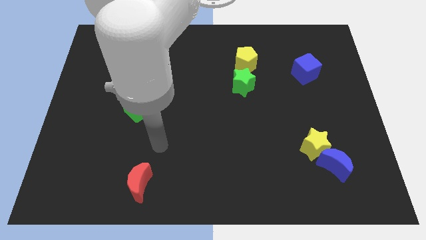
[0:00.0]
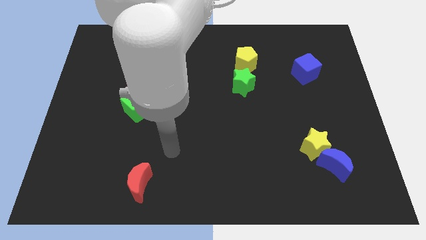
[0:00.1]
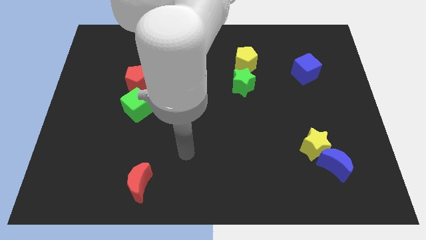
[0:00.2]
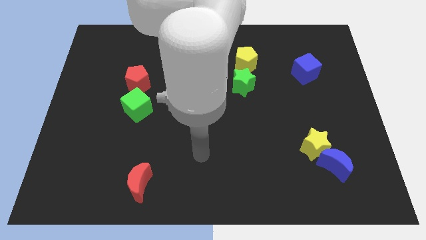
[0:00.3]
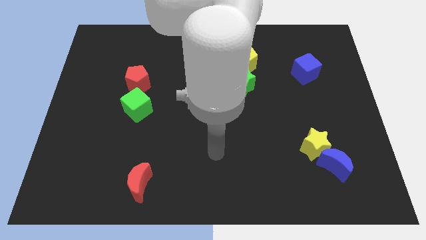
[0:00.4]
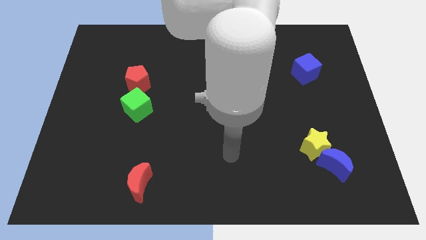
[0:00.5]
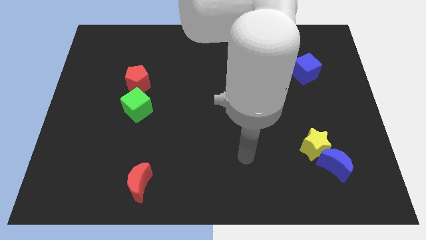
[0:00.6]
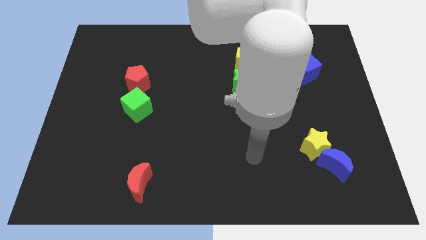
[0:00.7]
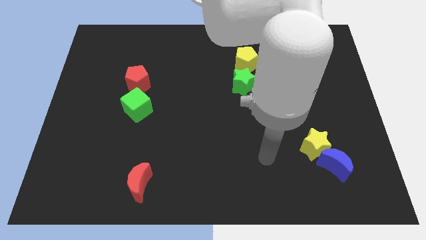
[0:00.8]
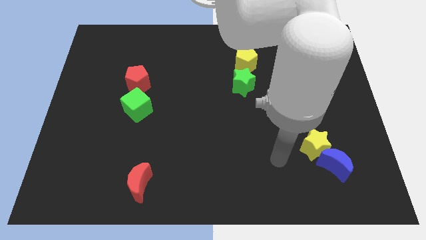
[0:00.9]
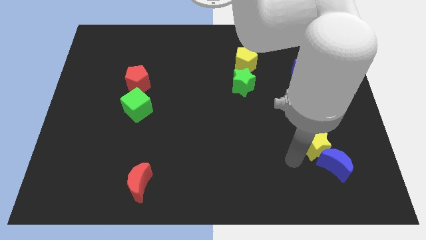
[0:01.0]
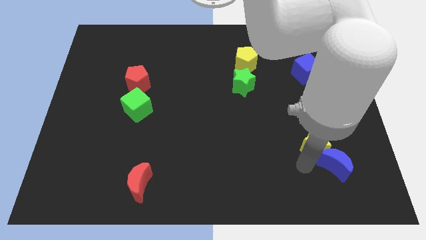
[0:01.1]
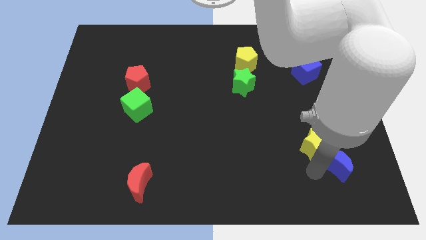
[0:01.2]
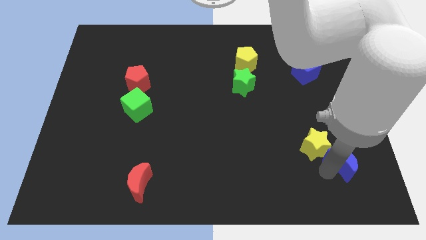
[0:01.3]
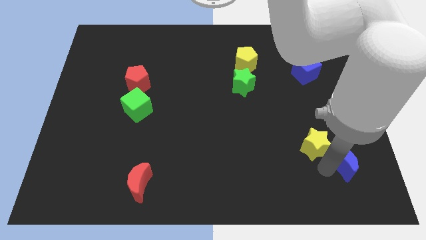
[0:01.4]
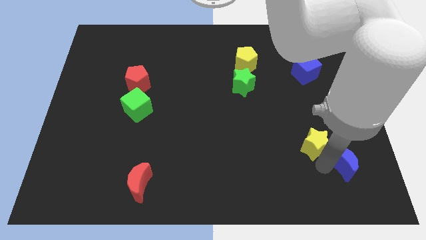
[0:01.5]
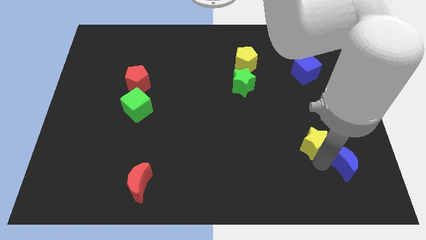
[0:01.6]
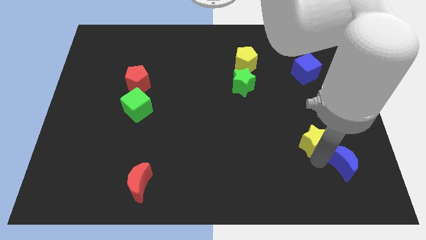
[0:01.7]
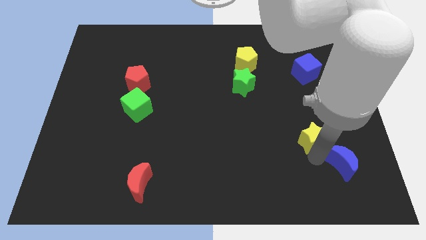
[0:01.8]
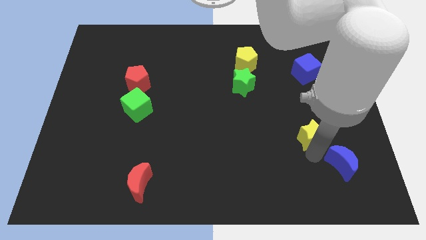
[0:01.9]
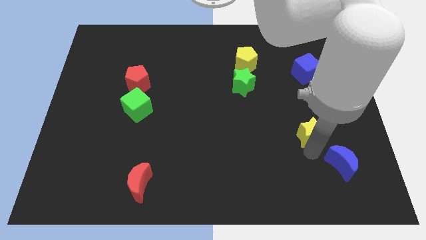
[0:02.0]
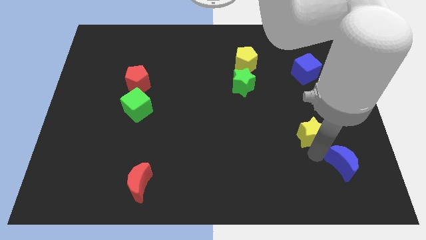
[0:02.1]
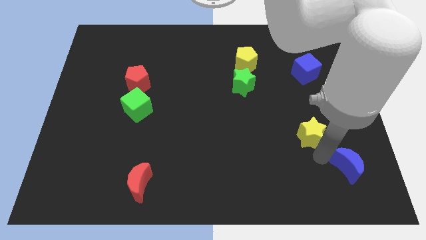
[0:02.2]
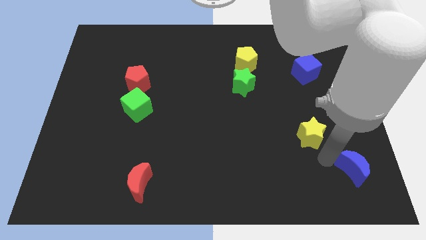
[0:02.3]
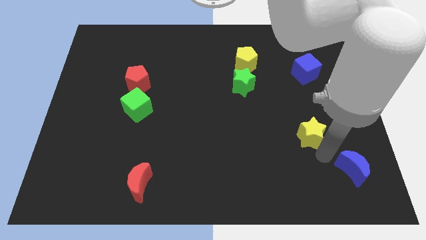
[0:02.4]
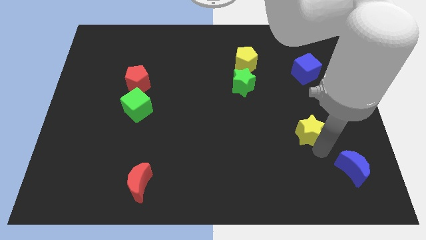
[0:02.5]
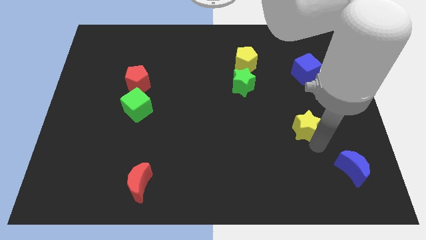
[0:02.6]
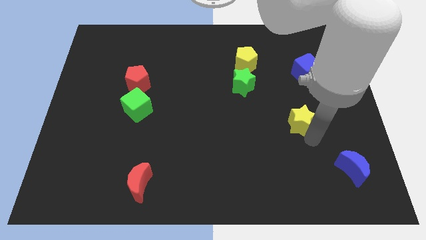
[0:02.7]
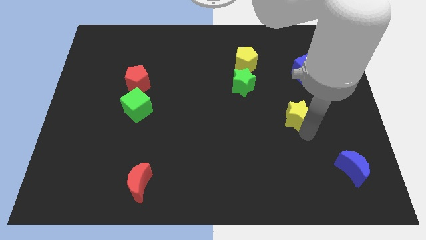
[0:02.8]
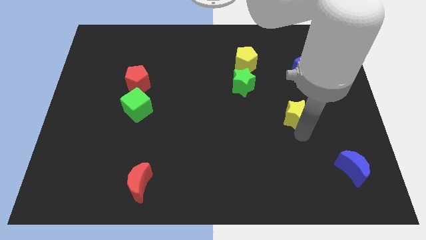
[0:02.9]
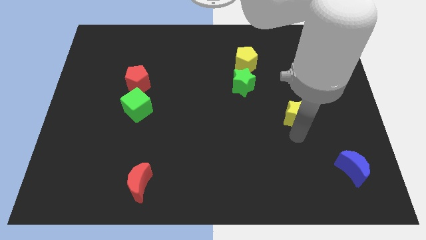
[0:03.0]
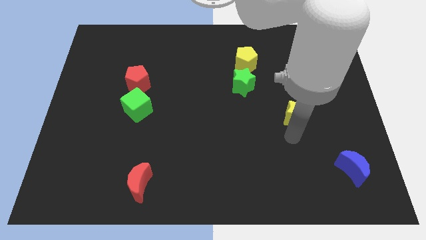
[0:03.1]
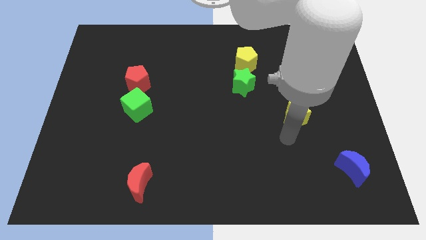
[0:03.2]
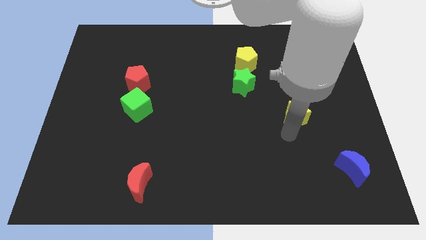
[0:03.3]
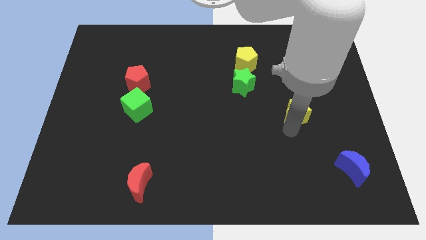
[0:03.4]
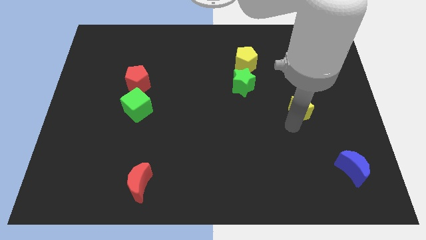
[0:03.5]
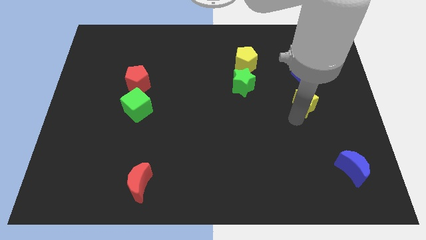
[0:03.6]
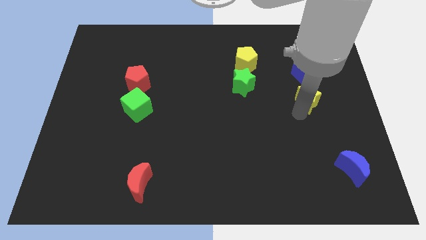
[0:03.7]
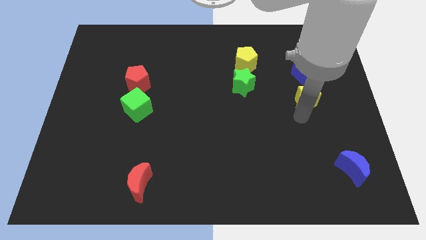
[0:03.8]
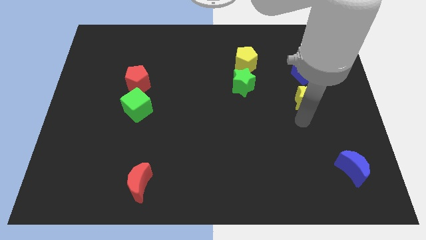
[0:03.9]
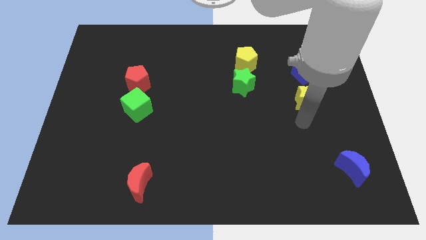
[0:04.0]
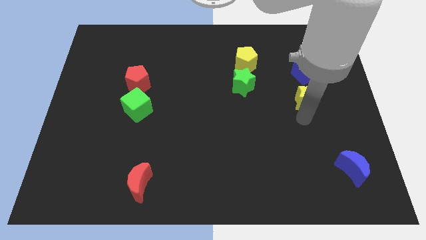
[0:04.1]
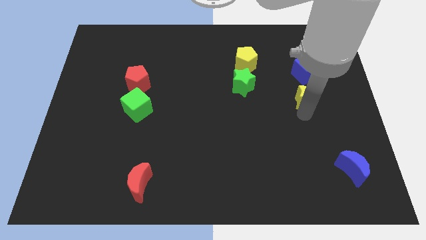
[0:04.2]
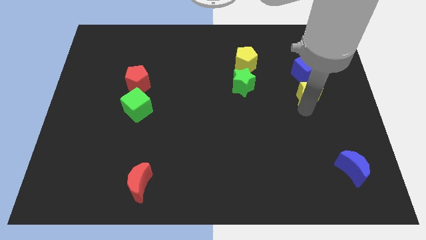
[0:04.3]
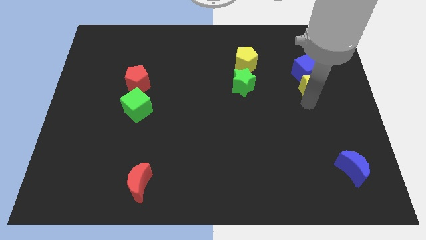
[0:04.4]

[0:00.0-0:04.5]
put the yellow star next to the blue cube

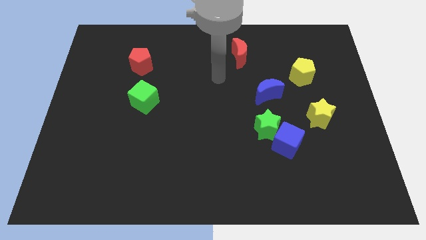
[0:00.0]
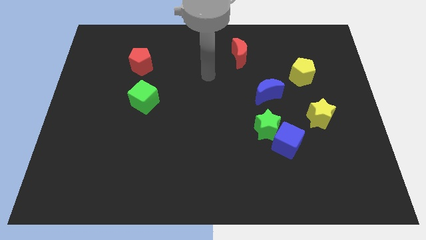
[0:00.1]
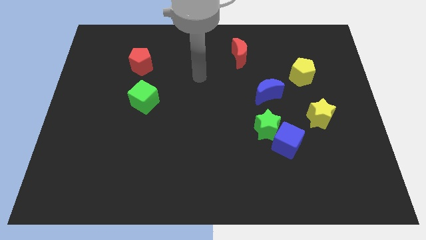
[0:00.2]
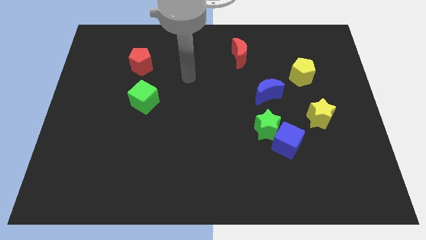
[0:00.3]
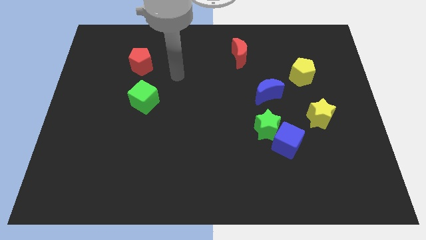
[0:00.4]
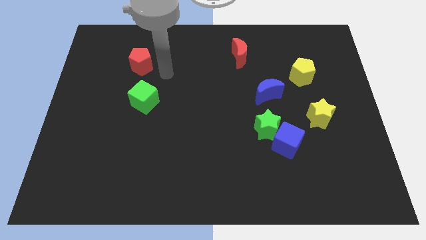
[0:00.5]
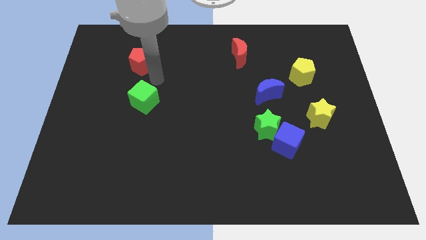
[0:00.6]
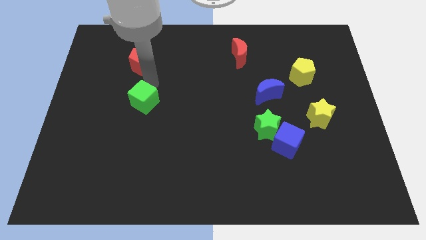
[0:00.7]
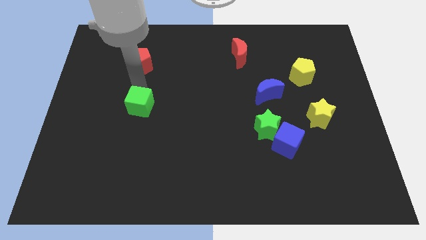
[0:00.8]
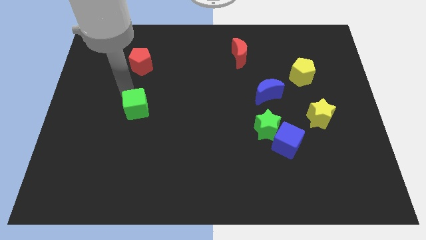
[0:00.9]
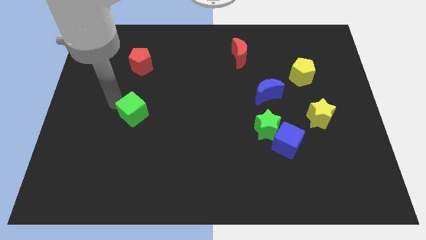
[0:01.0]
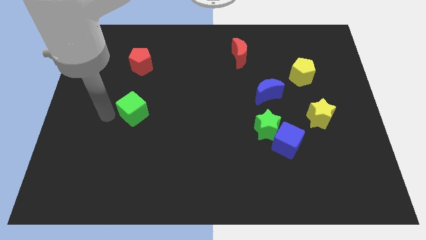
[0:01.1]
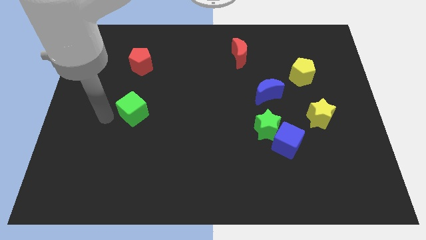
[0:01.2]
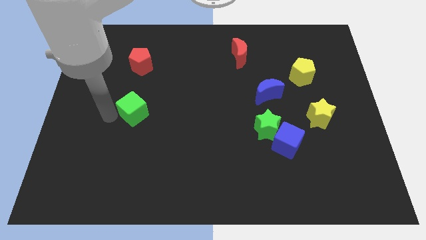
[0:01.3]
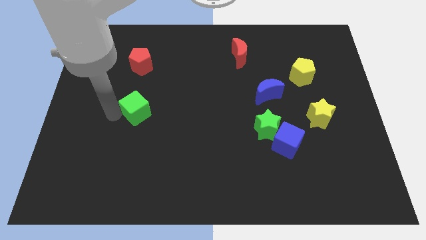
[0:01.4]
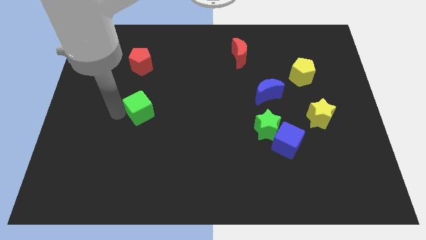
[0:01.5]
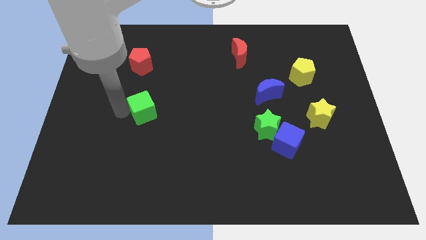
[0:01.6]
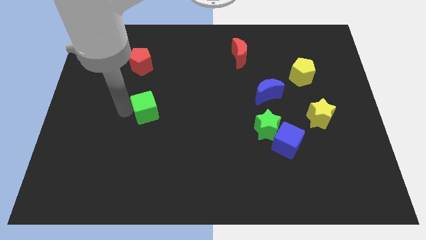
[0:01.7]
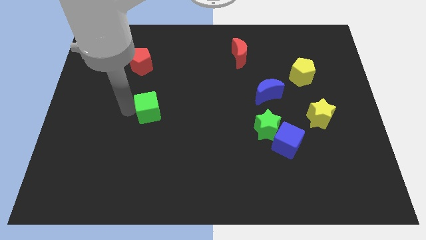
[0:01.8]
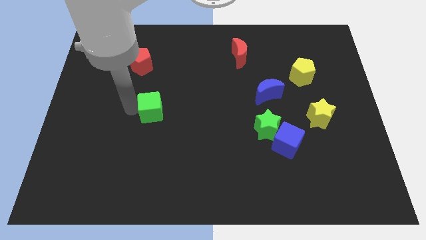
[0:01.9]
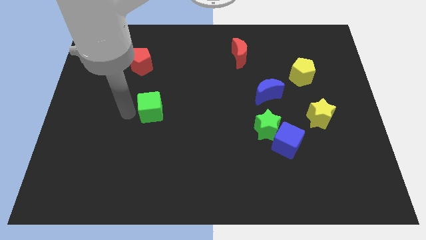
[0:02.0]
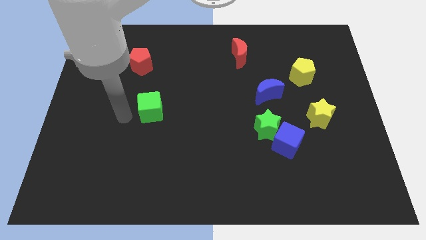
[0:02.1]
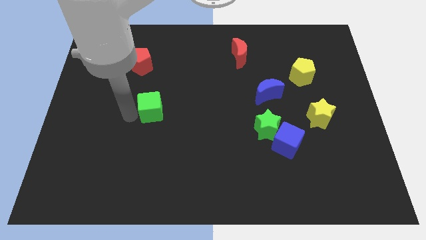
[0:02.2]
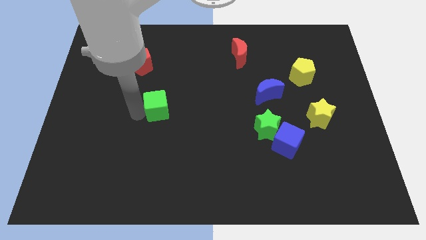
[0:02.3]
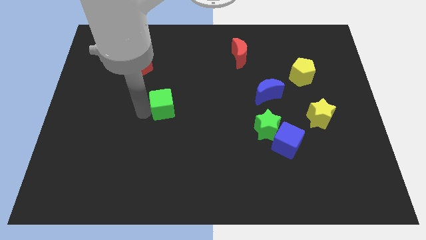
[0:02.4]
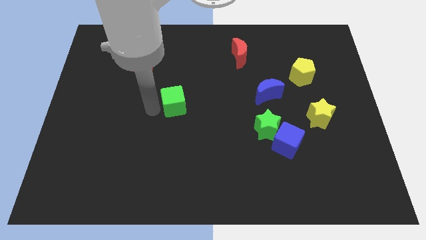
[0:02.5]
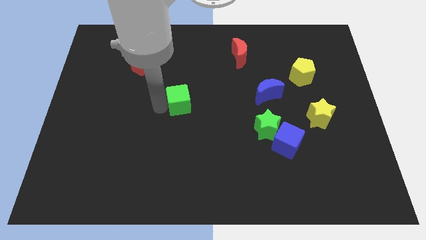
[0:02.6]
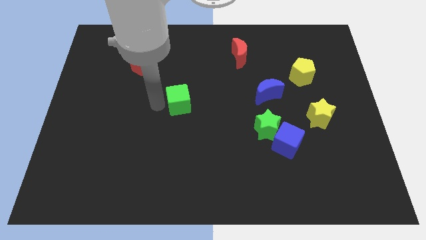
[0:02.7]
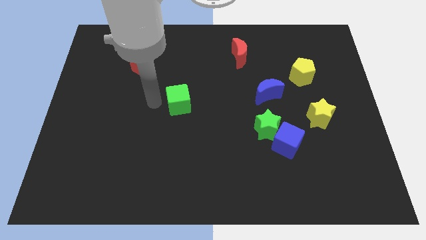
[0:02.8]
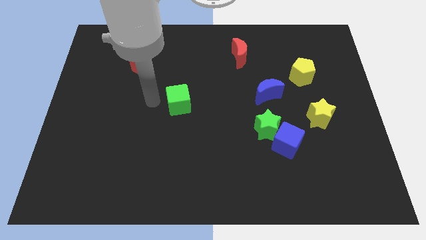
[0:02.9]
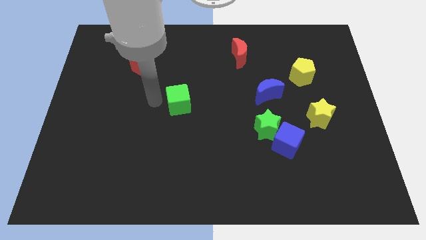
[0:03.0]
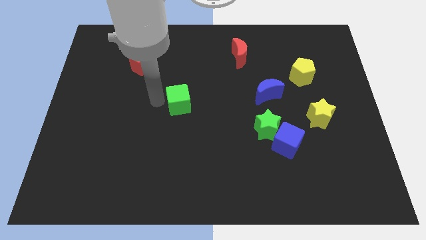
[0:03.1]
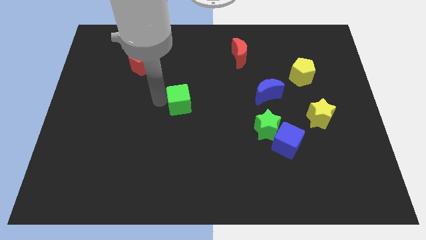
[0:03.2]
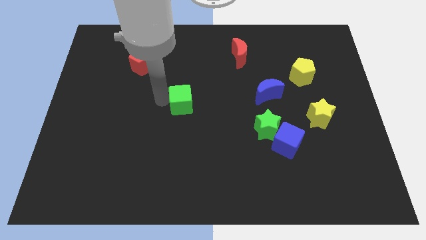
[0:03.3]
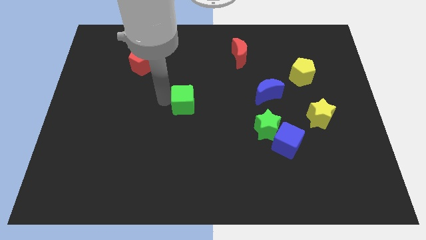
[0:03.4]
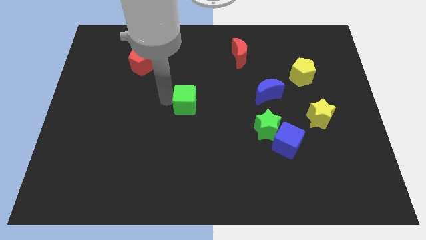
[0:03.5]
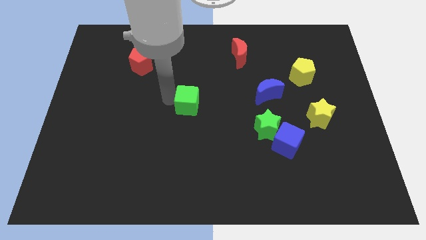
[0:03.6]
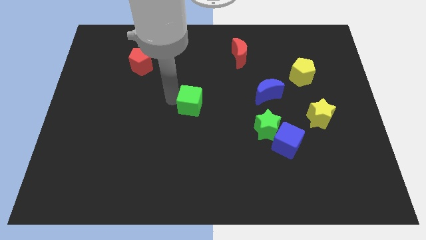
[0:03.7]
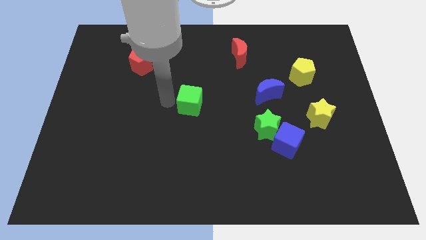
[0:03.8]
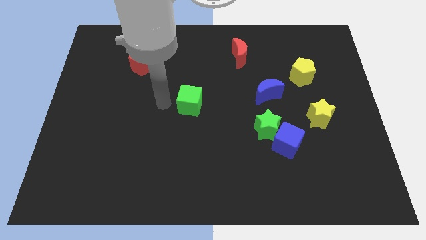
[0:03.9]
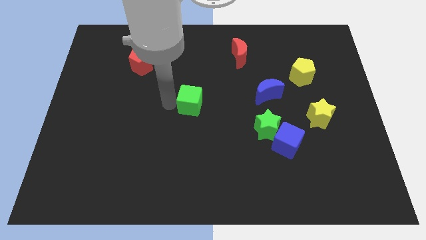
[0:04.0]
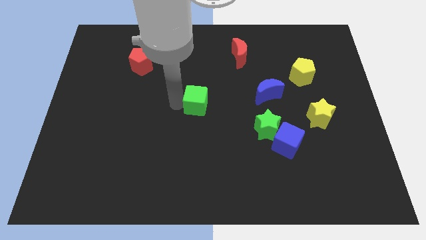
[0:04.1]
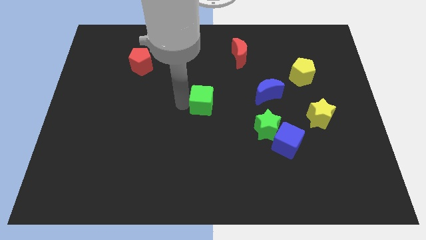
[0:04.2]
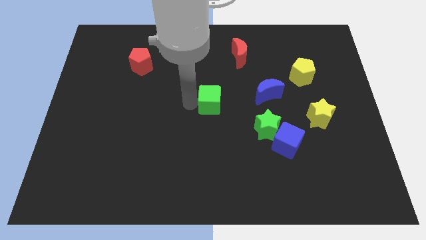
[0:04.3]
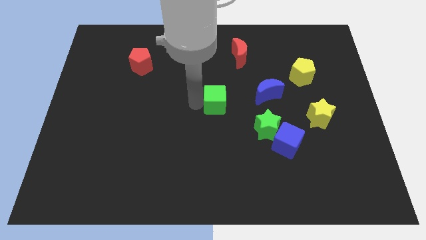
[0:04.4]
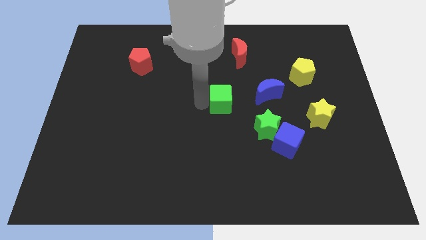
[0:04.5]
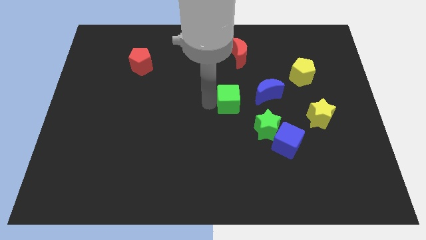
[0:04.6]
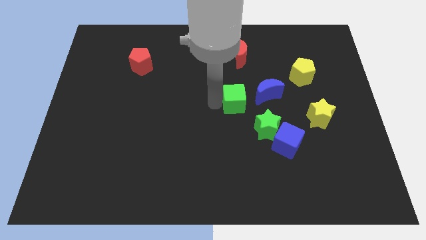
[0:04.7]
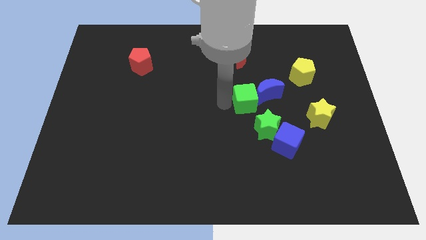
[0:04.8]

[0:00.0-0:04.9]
move the green cube next to the blue moon
